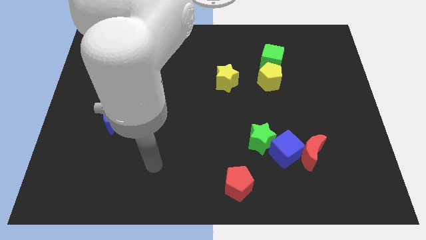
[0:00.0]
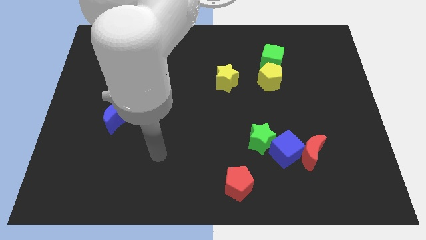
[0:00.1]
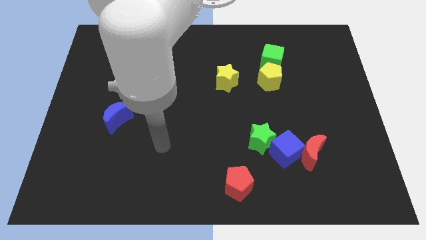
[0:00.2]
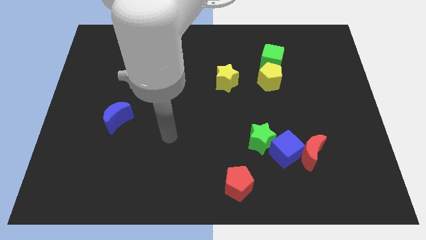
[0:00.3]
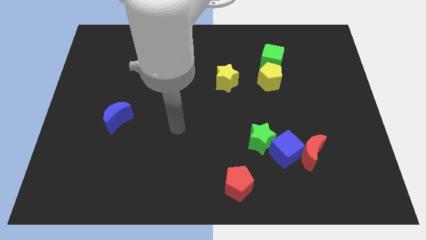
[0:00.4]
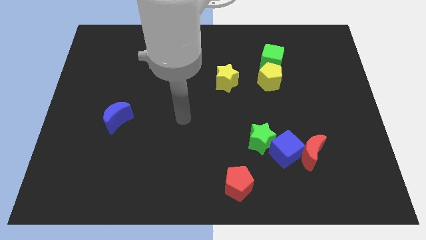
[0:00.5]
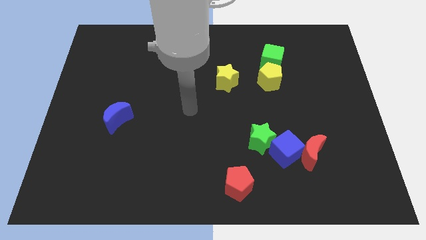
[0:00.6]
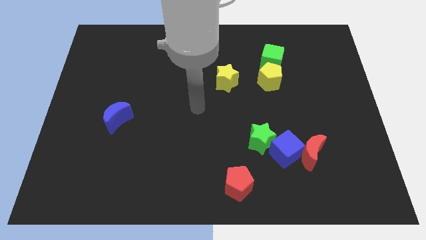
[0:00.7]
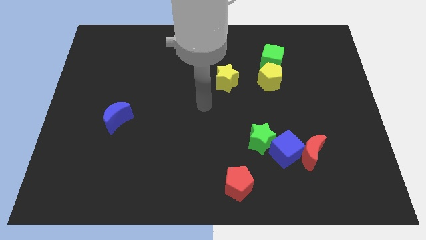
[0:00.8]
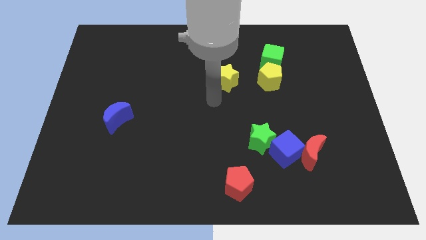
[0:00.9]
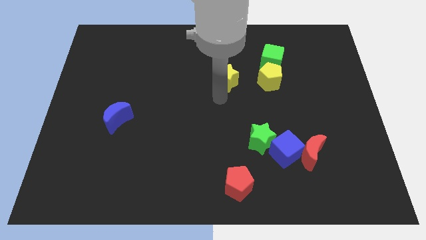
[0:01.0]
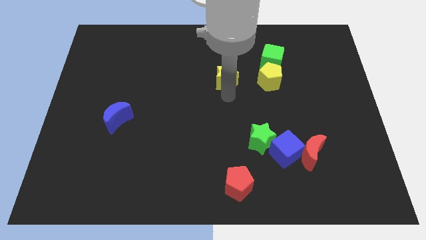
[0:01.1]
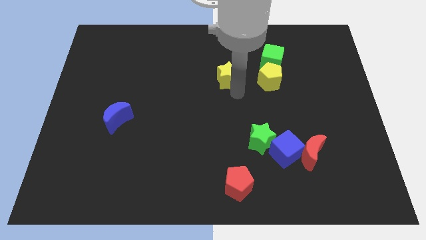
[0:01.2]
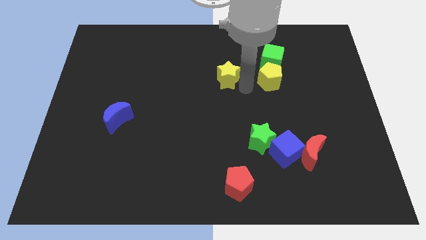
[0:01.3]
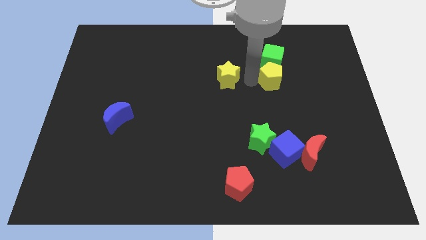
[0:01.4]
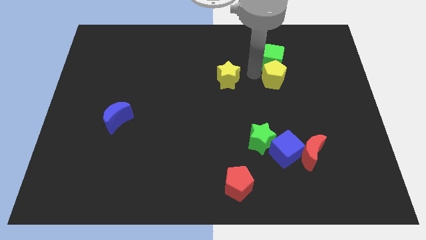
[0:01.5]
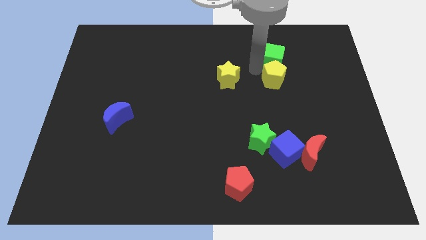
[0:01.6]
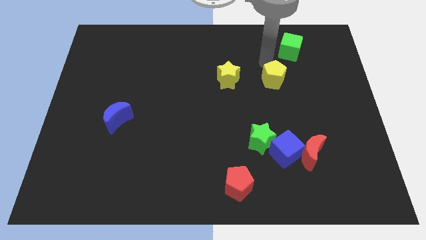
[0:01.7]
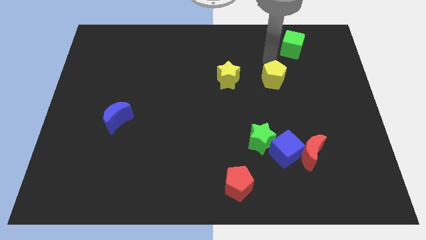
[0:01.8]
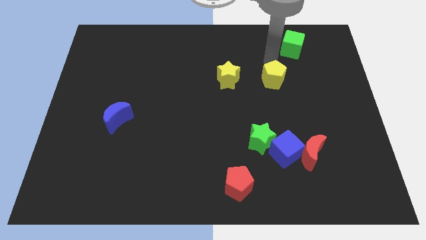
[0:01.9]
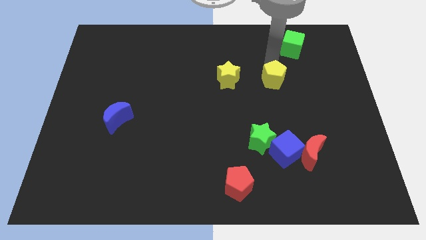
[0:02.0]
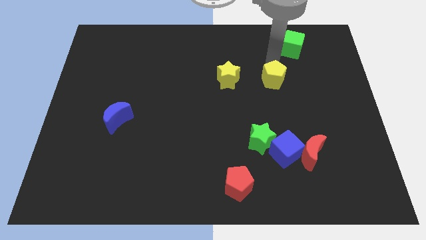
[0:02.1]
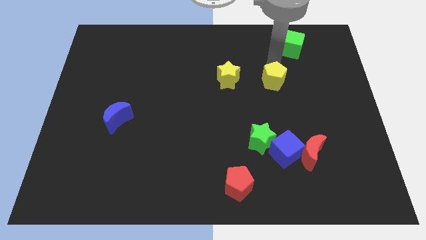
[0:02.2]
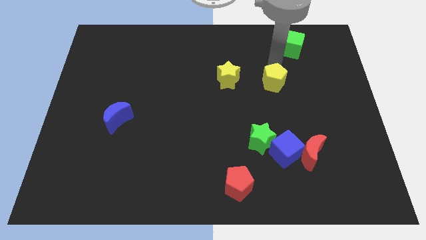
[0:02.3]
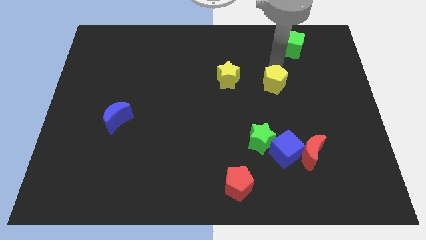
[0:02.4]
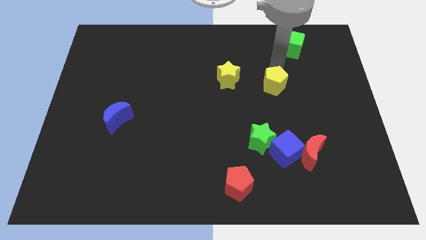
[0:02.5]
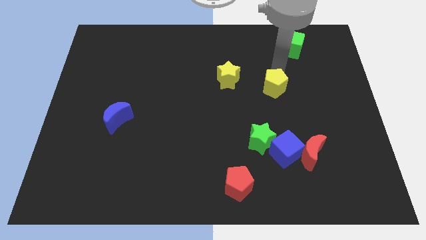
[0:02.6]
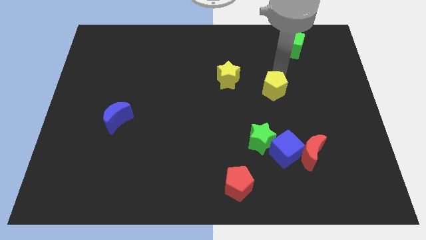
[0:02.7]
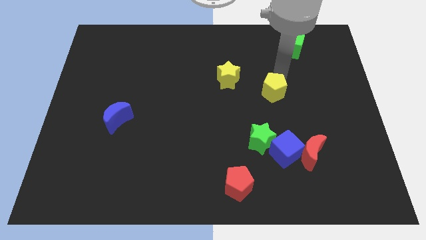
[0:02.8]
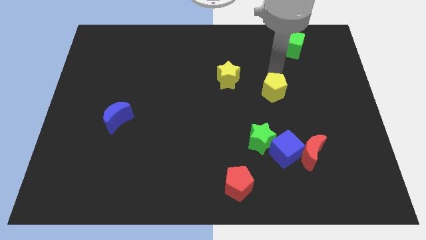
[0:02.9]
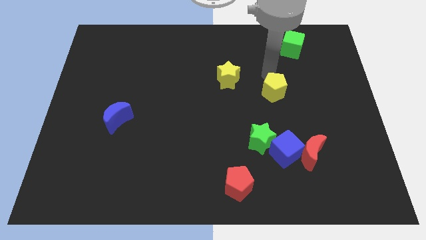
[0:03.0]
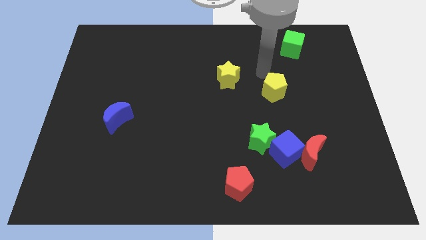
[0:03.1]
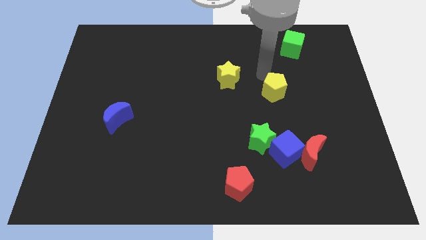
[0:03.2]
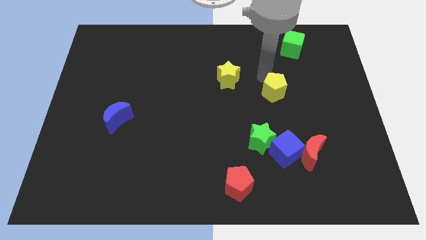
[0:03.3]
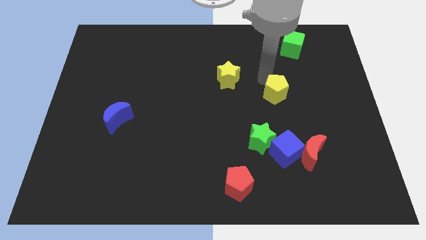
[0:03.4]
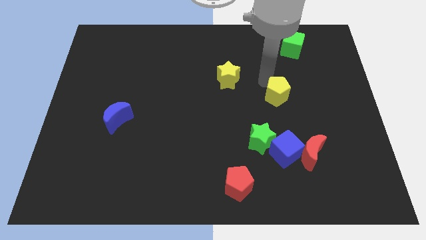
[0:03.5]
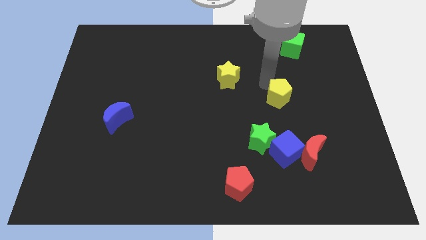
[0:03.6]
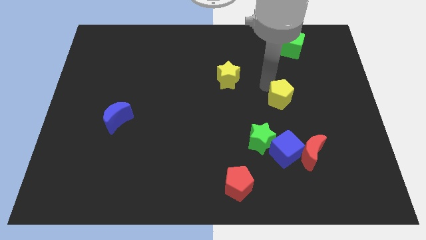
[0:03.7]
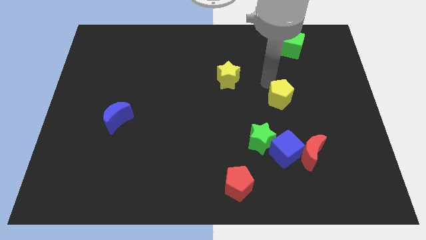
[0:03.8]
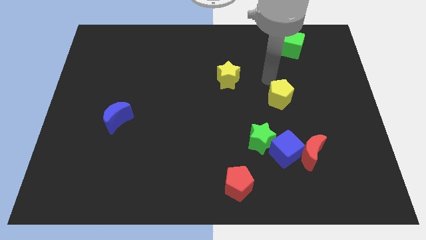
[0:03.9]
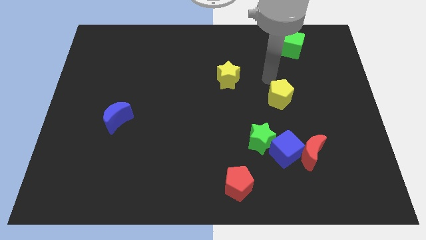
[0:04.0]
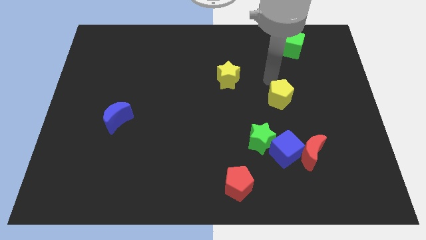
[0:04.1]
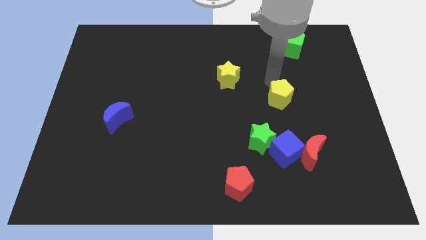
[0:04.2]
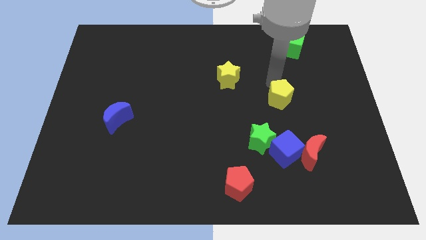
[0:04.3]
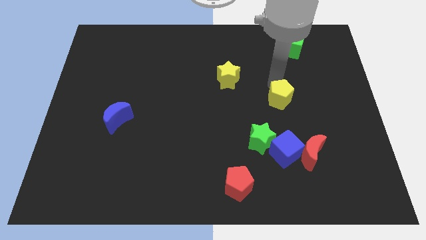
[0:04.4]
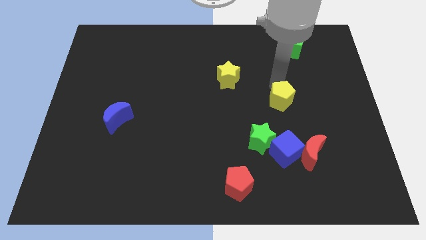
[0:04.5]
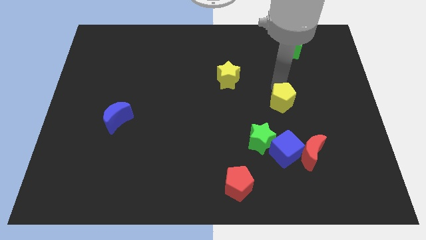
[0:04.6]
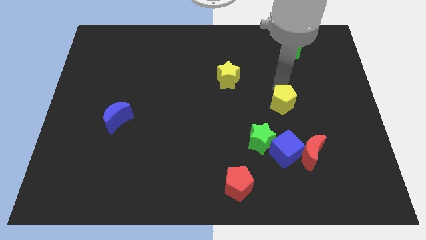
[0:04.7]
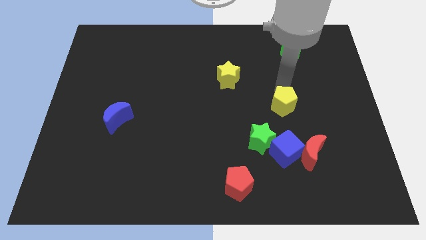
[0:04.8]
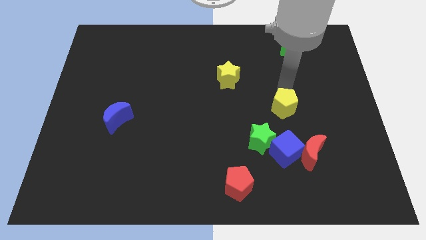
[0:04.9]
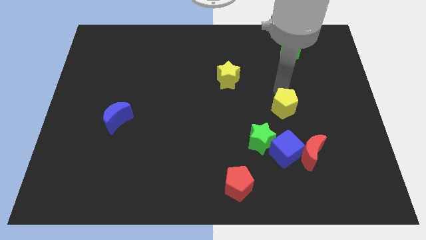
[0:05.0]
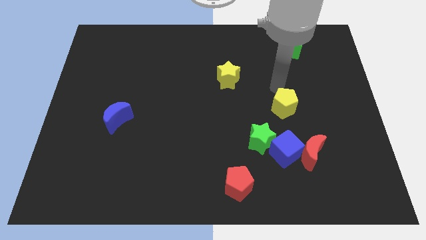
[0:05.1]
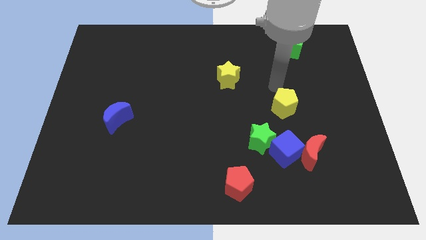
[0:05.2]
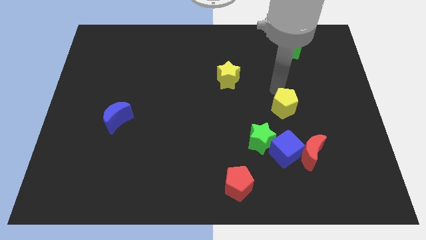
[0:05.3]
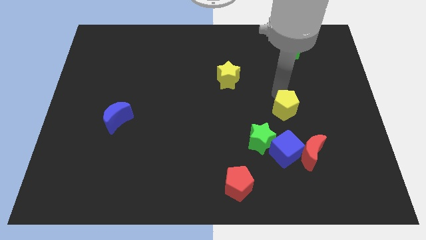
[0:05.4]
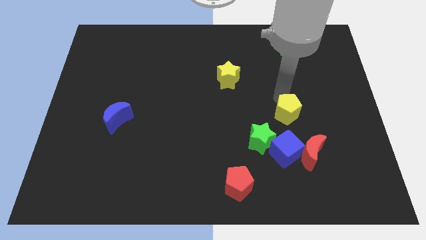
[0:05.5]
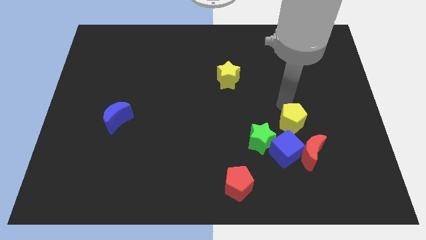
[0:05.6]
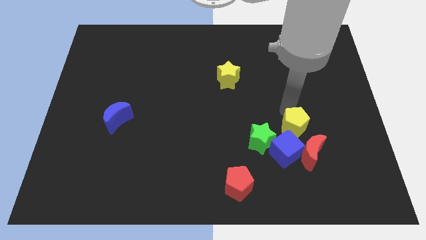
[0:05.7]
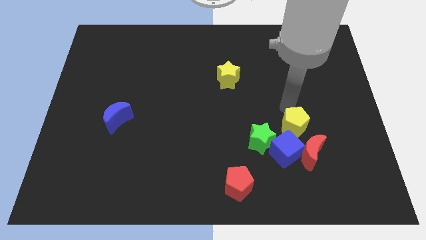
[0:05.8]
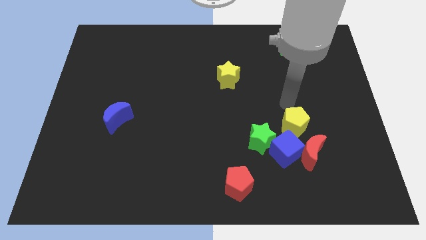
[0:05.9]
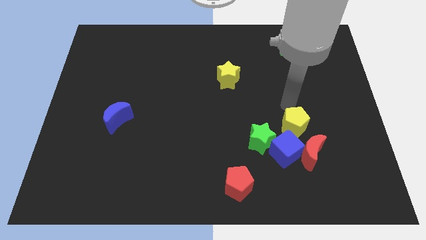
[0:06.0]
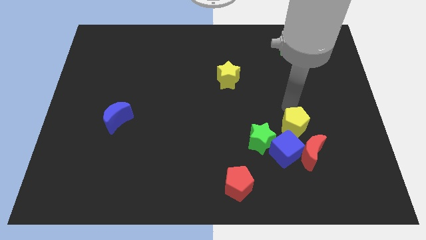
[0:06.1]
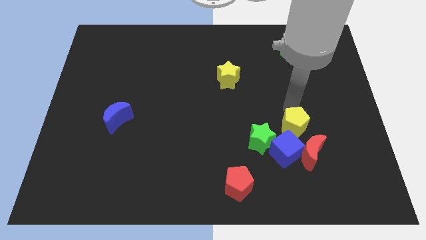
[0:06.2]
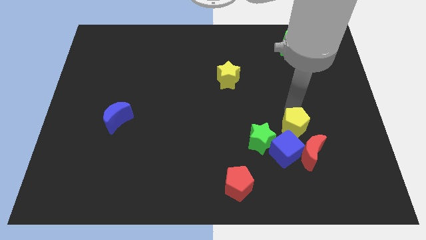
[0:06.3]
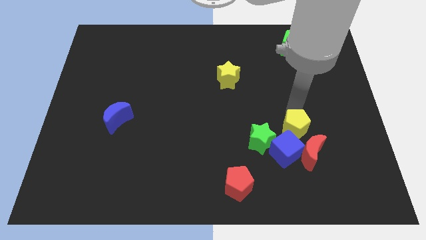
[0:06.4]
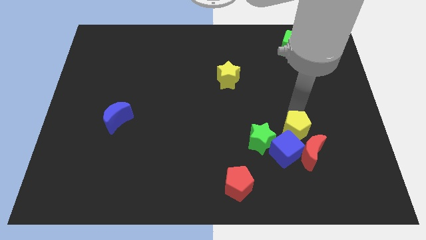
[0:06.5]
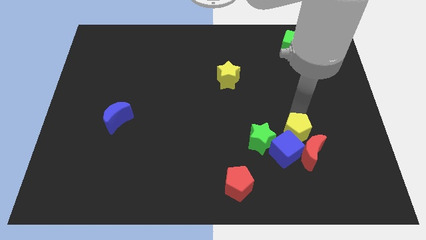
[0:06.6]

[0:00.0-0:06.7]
slide the yellow pentagon next to the red moon
